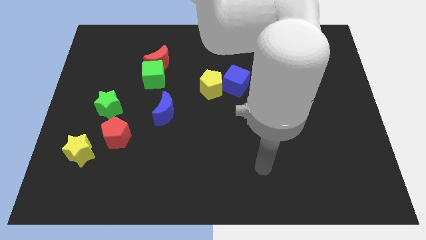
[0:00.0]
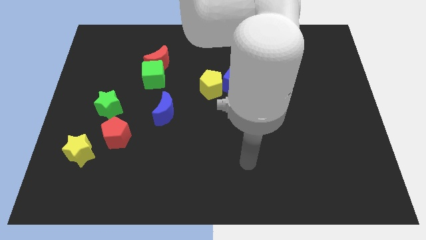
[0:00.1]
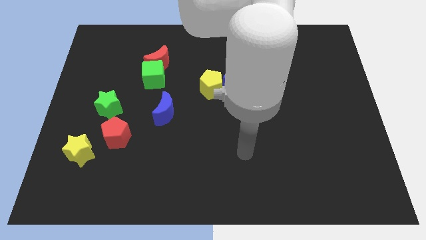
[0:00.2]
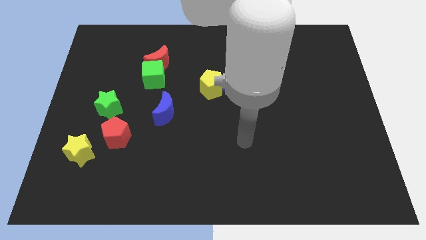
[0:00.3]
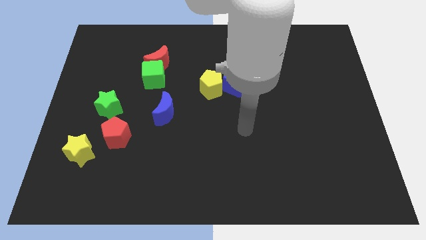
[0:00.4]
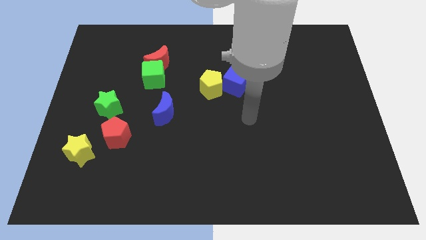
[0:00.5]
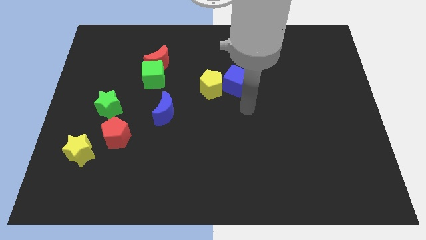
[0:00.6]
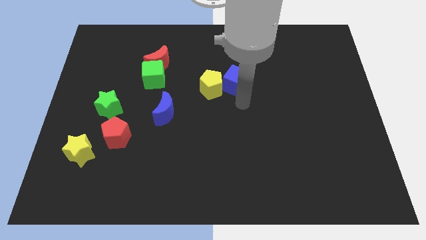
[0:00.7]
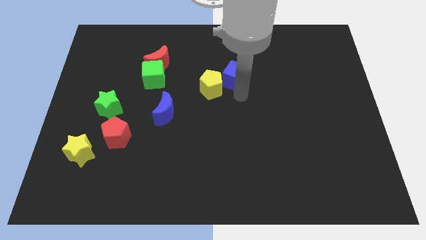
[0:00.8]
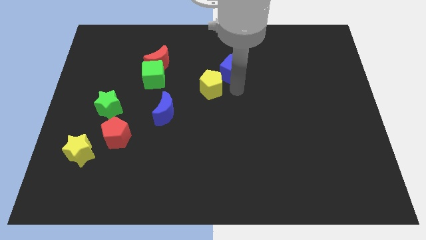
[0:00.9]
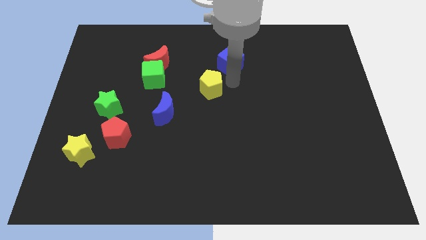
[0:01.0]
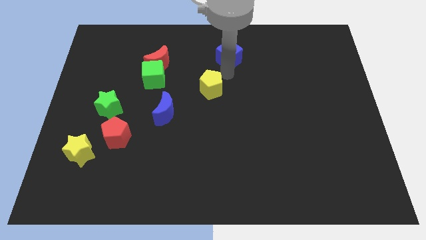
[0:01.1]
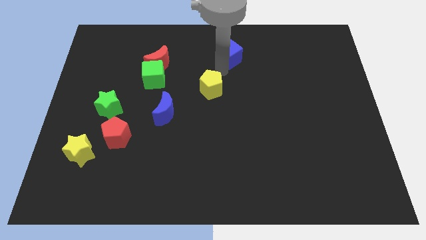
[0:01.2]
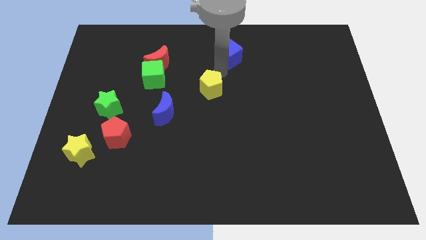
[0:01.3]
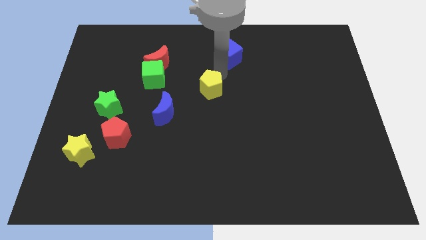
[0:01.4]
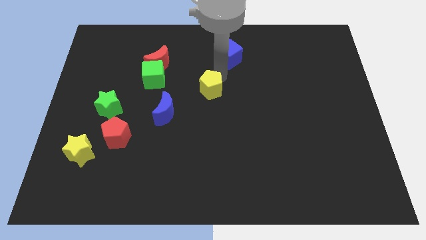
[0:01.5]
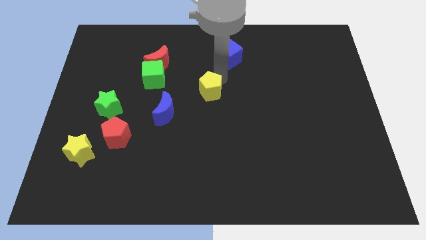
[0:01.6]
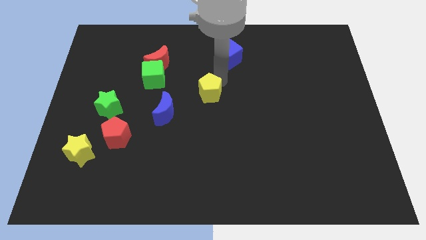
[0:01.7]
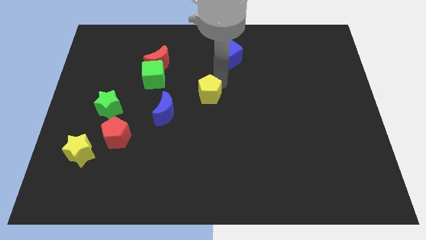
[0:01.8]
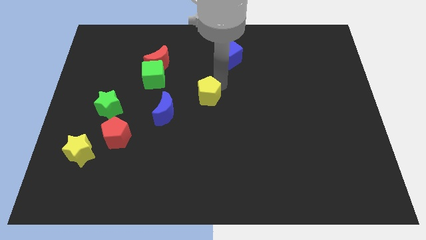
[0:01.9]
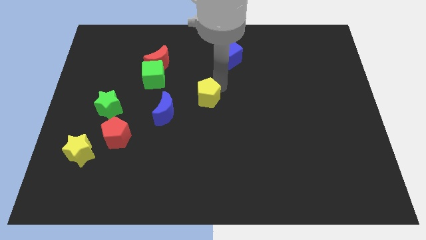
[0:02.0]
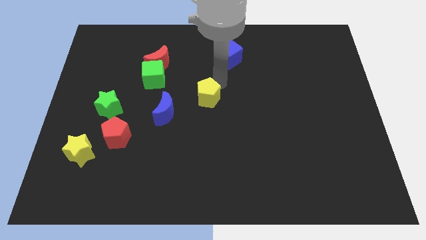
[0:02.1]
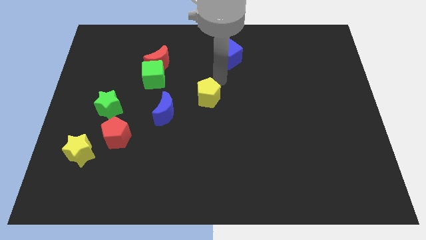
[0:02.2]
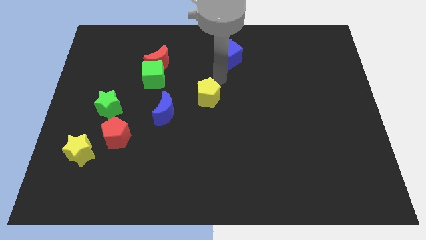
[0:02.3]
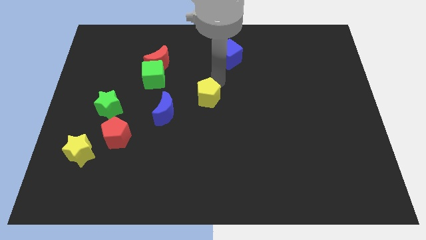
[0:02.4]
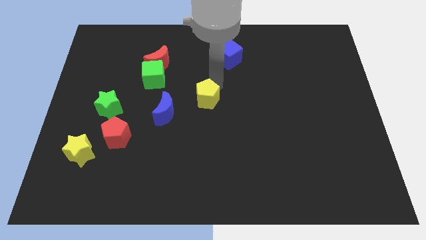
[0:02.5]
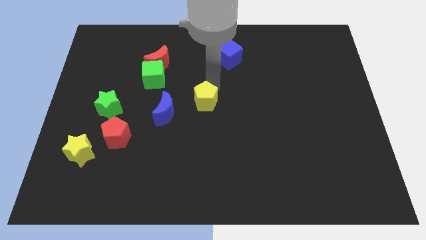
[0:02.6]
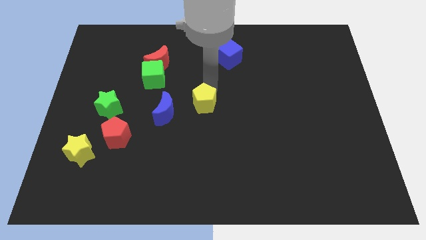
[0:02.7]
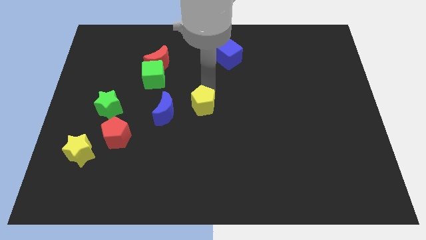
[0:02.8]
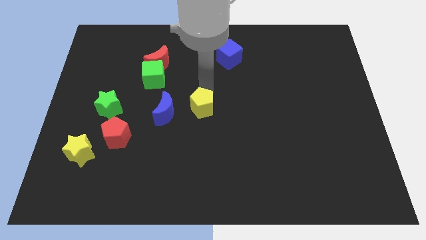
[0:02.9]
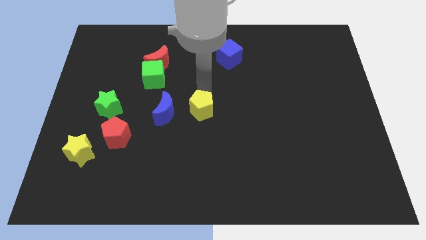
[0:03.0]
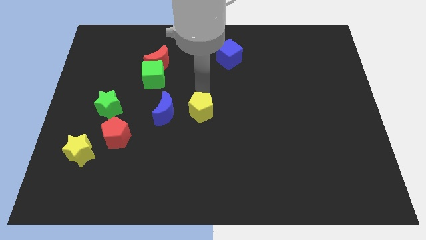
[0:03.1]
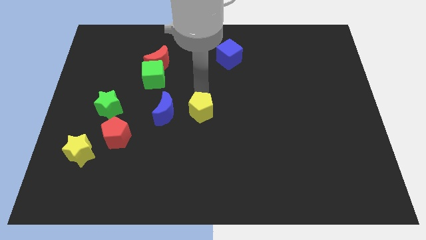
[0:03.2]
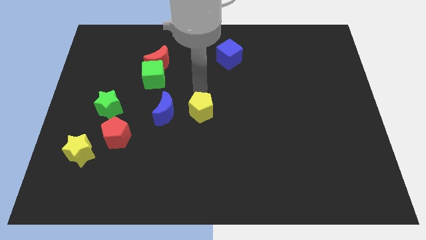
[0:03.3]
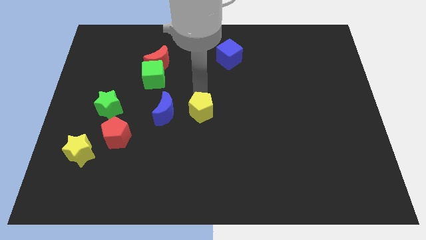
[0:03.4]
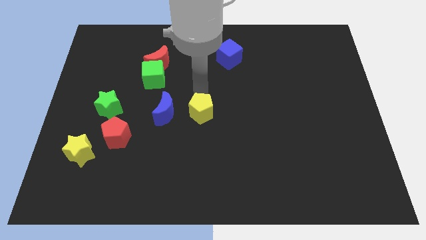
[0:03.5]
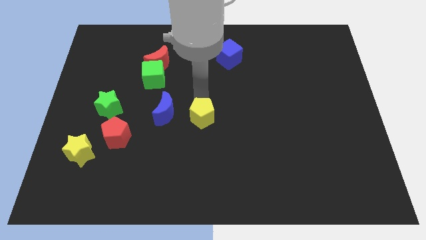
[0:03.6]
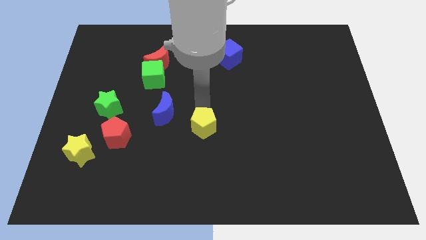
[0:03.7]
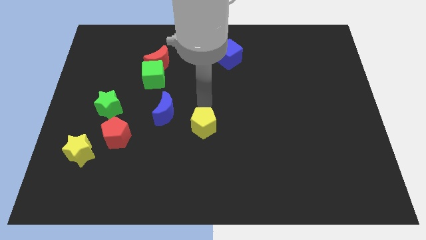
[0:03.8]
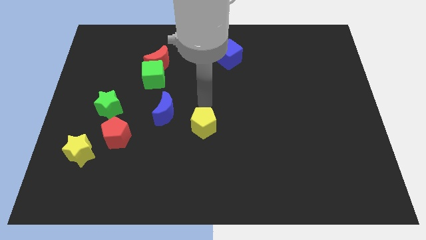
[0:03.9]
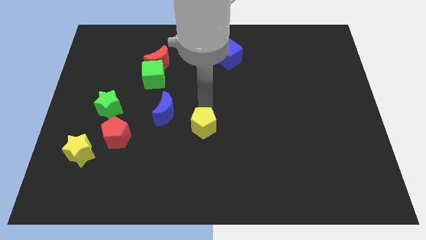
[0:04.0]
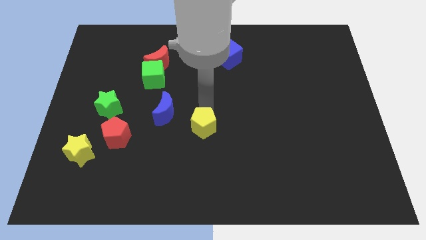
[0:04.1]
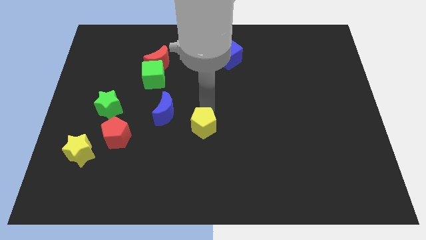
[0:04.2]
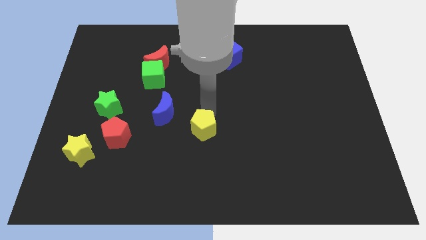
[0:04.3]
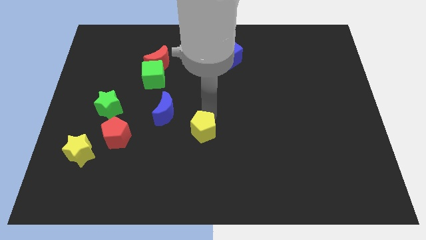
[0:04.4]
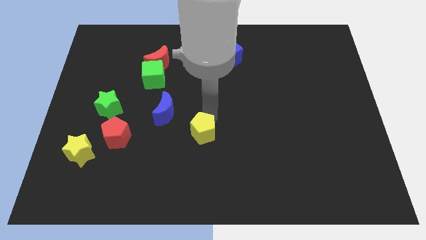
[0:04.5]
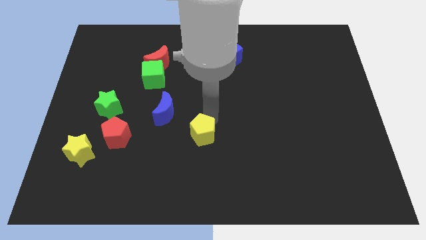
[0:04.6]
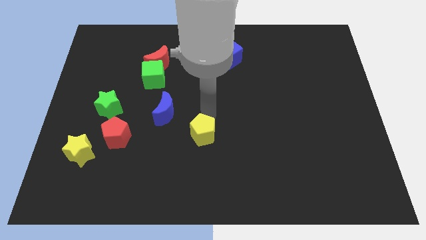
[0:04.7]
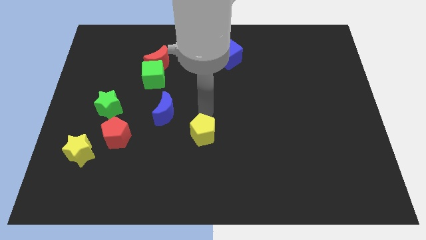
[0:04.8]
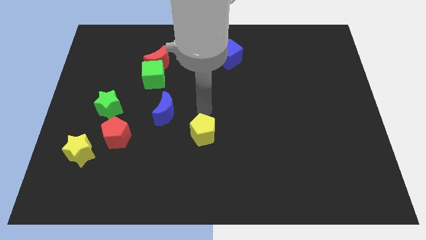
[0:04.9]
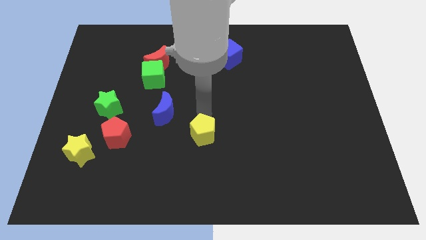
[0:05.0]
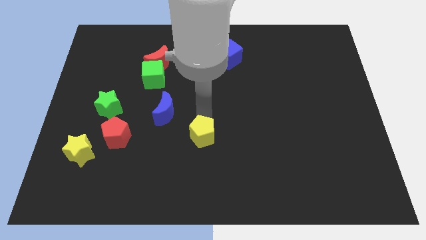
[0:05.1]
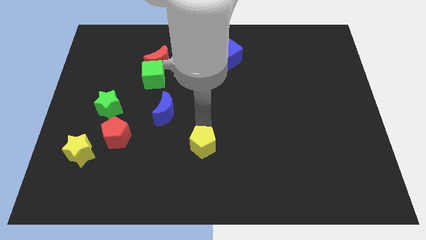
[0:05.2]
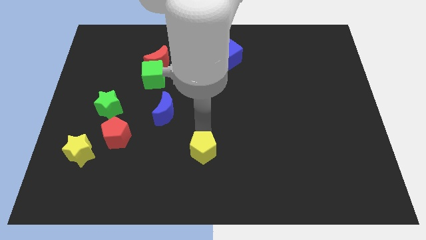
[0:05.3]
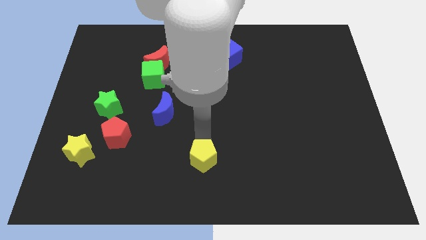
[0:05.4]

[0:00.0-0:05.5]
move the yellow pentagon to the bottom

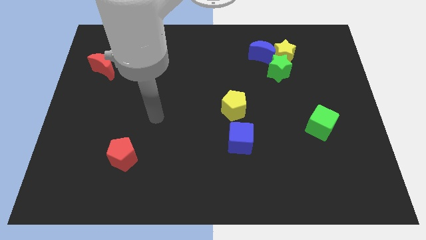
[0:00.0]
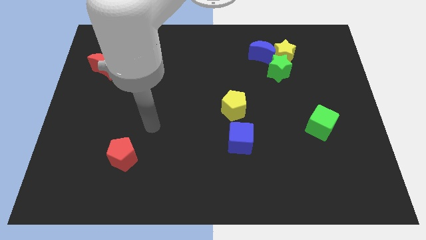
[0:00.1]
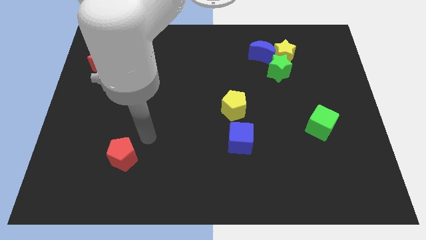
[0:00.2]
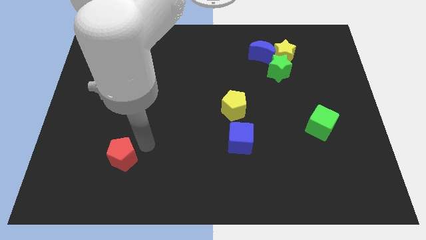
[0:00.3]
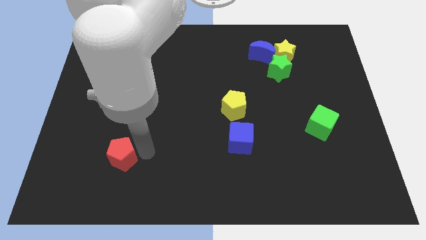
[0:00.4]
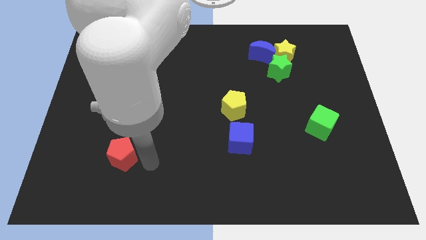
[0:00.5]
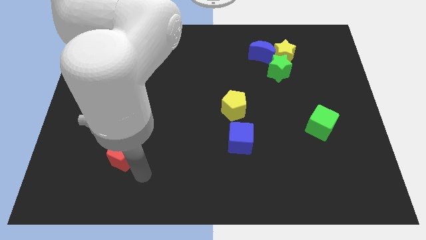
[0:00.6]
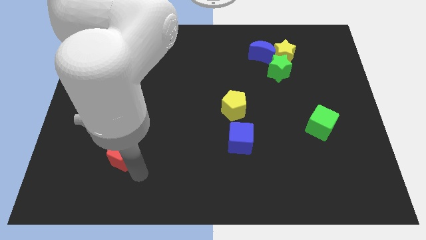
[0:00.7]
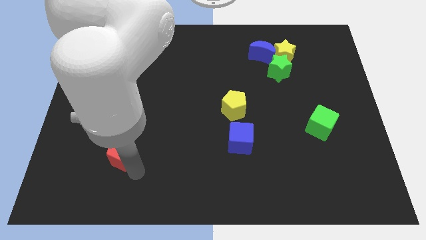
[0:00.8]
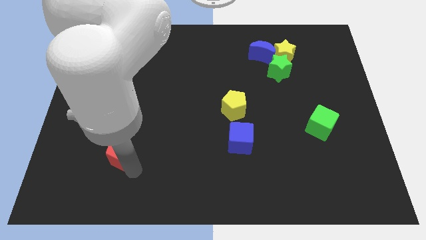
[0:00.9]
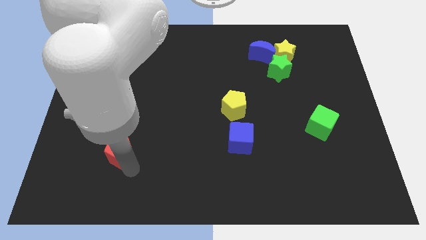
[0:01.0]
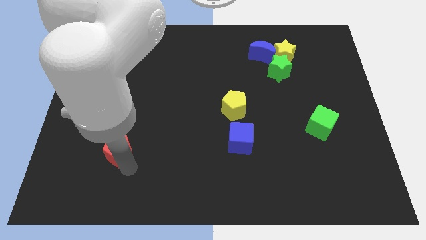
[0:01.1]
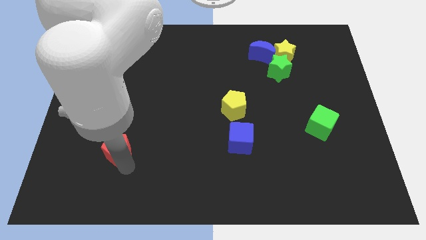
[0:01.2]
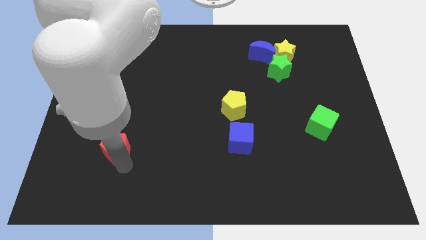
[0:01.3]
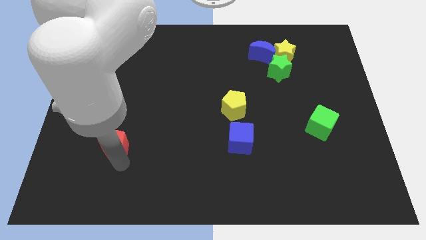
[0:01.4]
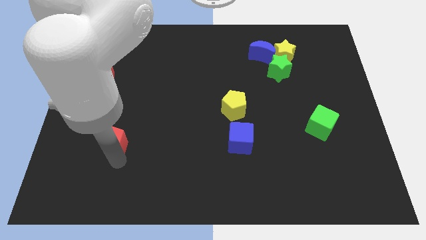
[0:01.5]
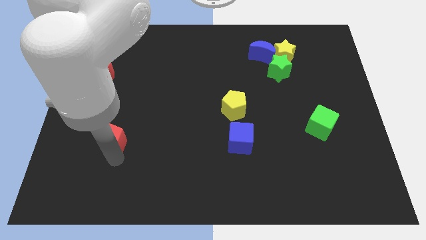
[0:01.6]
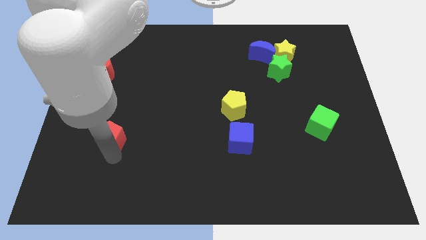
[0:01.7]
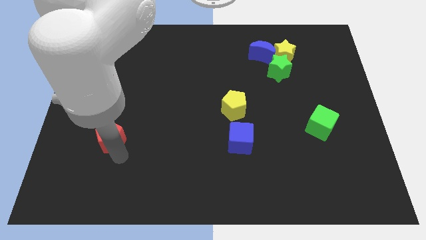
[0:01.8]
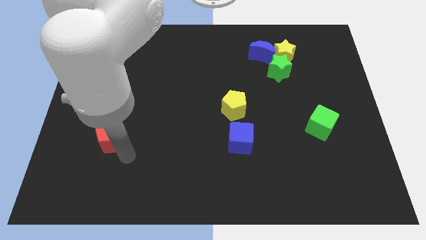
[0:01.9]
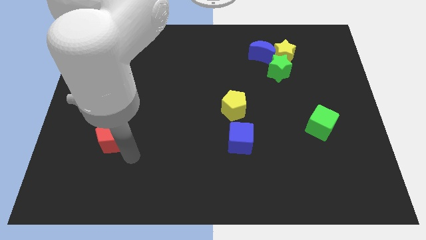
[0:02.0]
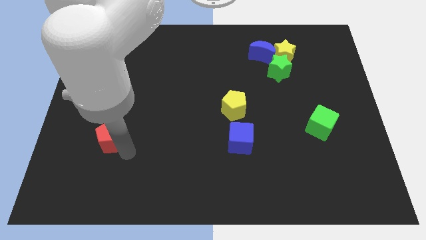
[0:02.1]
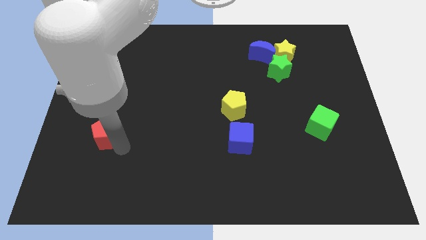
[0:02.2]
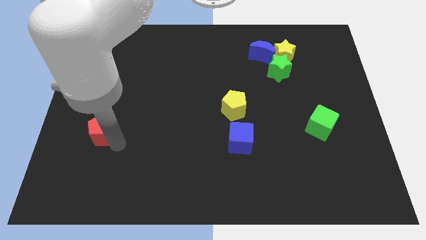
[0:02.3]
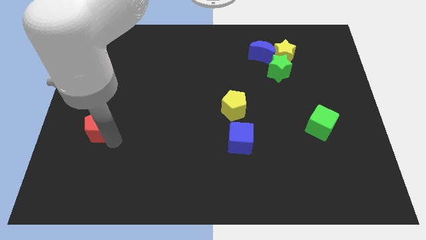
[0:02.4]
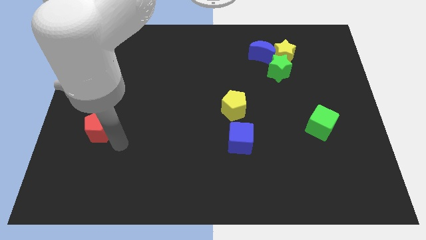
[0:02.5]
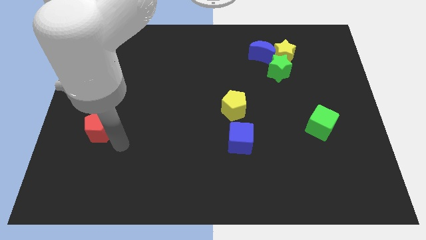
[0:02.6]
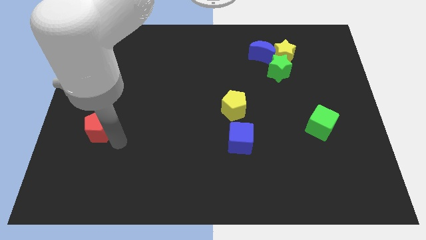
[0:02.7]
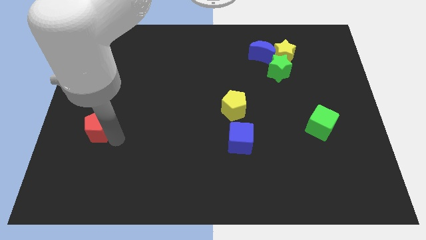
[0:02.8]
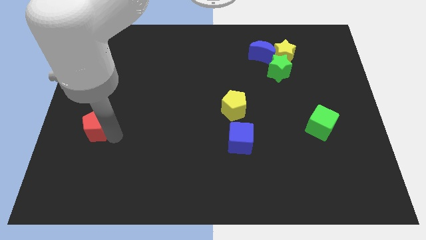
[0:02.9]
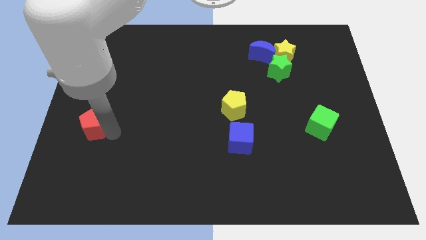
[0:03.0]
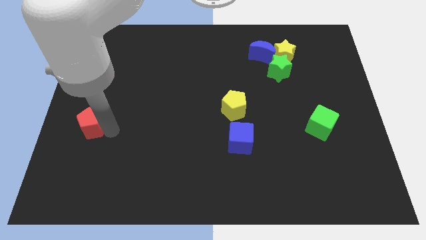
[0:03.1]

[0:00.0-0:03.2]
slide the red pentagon to the center left
